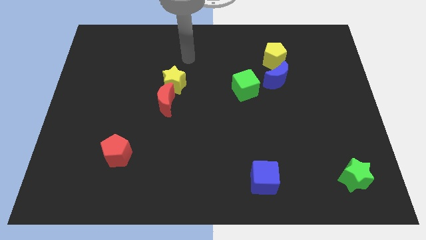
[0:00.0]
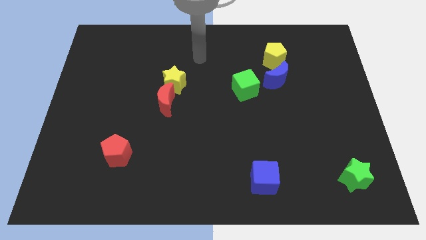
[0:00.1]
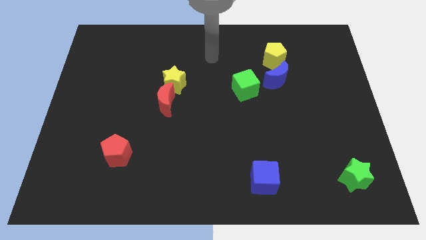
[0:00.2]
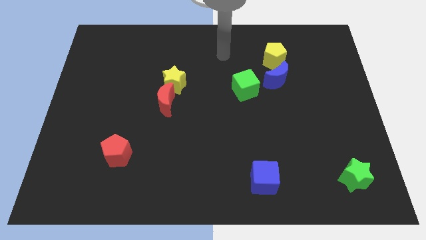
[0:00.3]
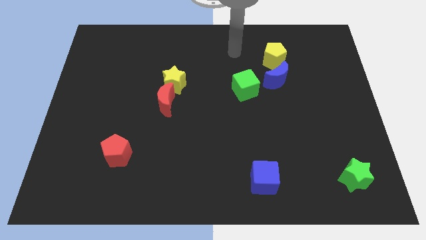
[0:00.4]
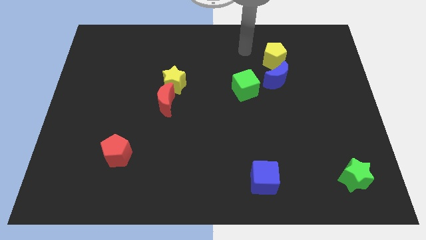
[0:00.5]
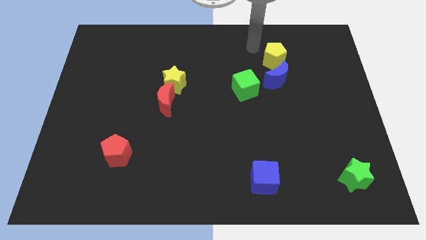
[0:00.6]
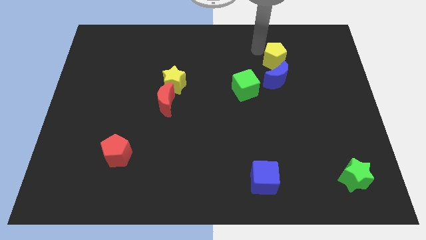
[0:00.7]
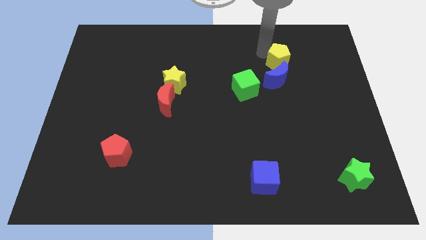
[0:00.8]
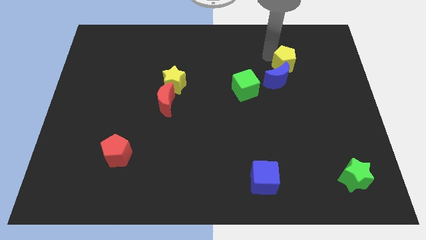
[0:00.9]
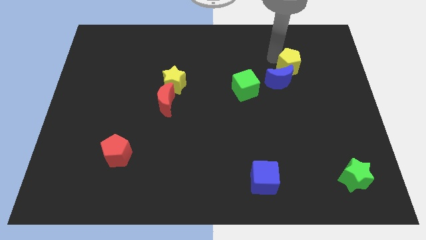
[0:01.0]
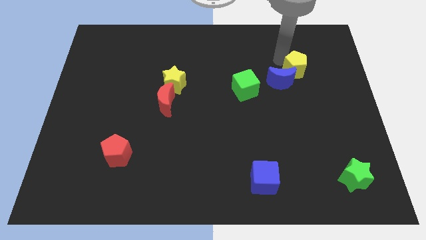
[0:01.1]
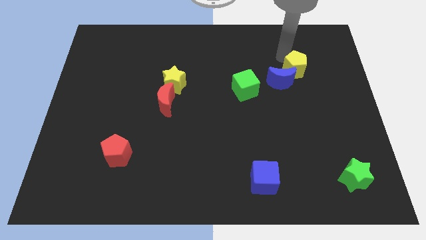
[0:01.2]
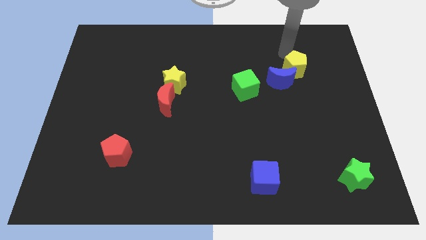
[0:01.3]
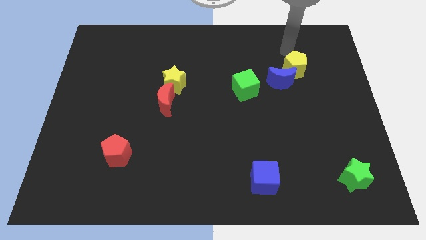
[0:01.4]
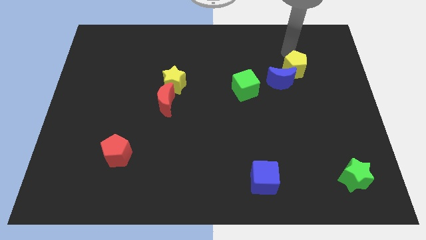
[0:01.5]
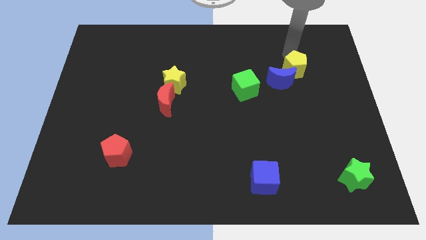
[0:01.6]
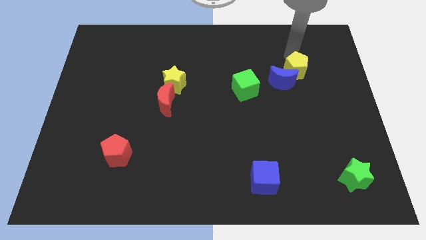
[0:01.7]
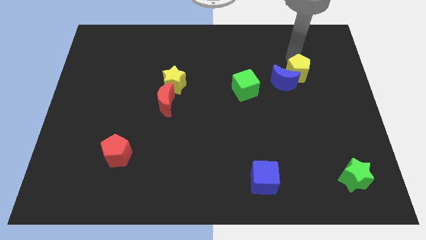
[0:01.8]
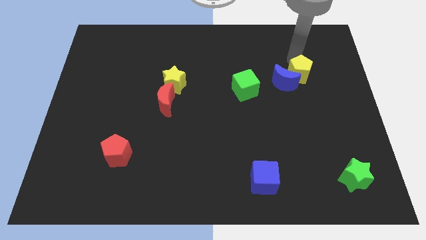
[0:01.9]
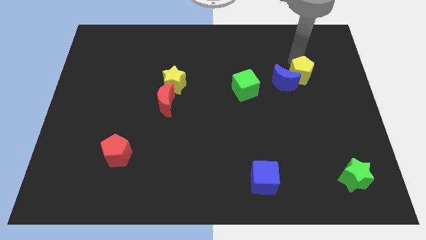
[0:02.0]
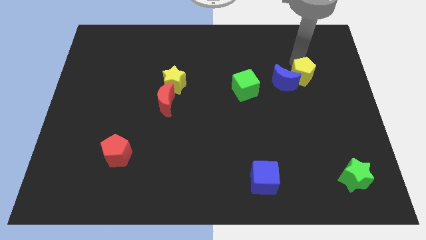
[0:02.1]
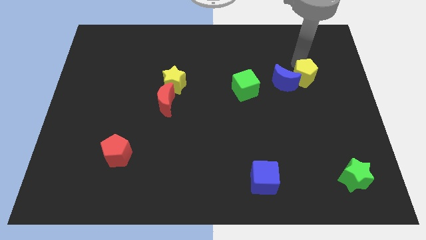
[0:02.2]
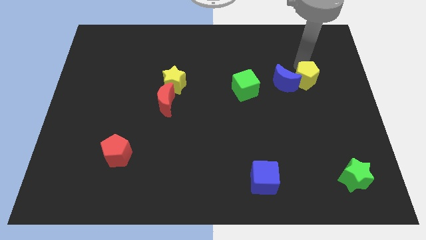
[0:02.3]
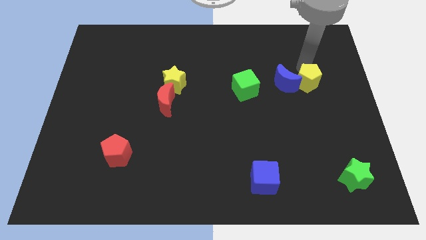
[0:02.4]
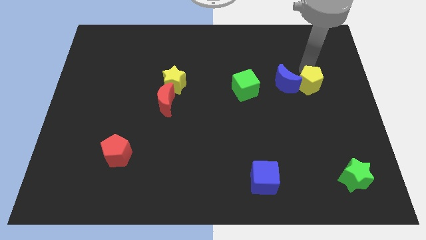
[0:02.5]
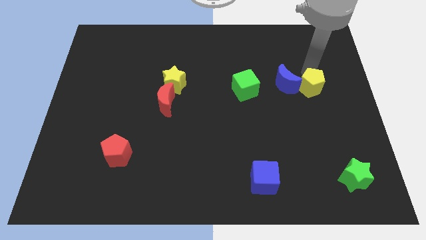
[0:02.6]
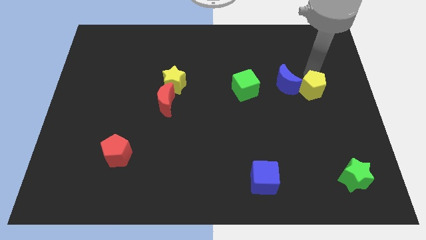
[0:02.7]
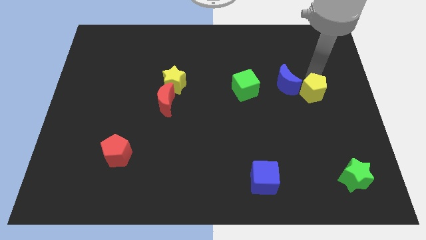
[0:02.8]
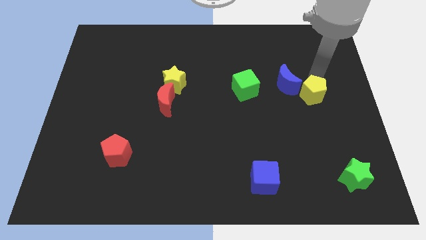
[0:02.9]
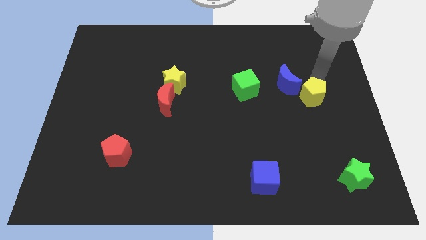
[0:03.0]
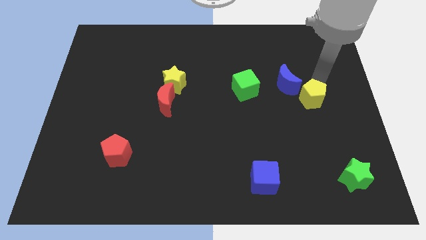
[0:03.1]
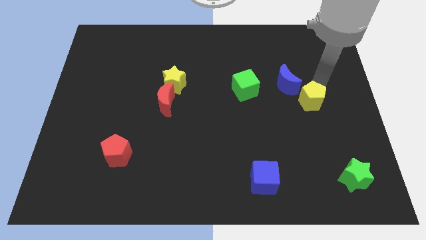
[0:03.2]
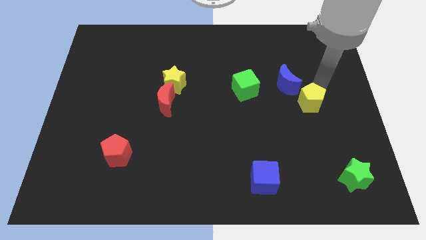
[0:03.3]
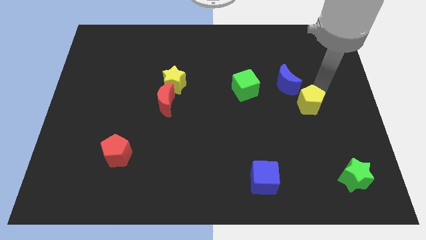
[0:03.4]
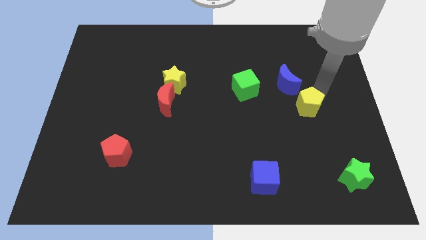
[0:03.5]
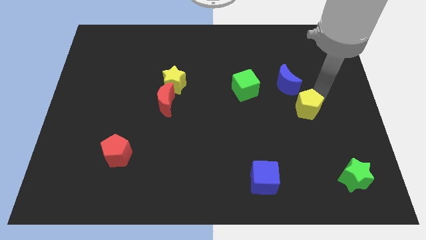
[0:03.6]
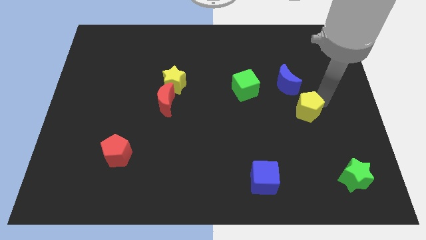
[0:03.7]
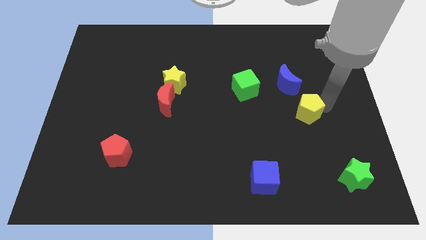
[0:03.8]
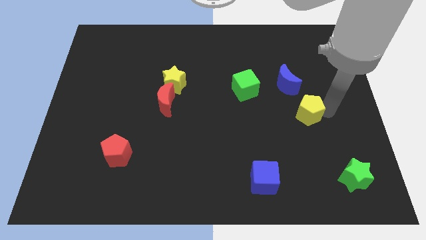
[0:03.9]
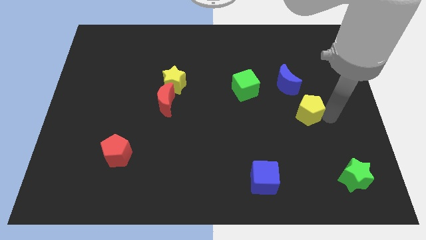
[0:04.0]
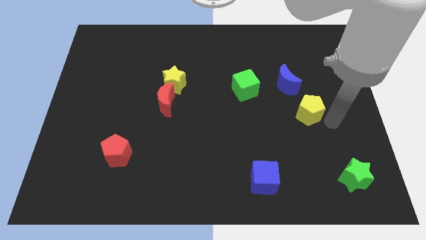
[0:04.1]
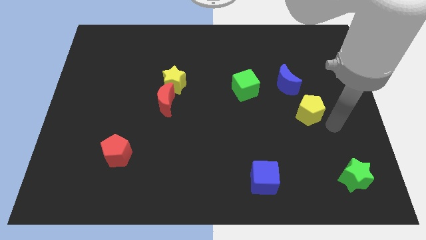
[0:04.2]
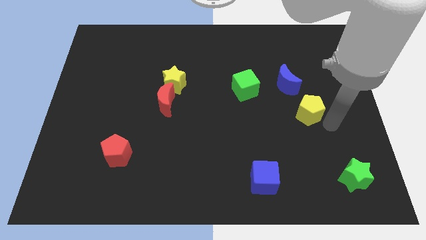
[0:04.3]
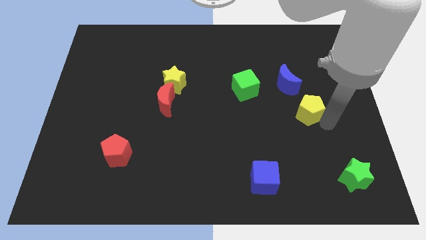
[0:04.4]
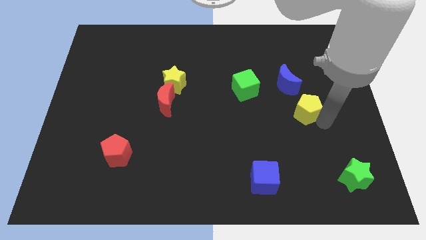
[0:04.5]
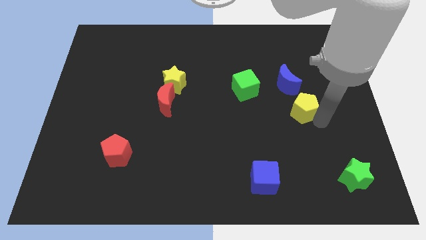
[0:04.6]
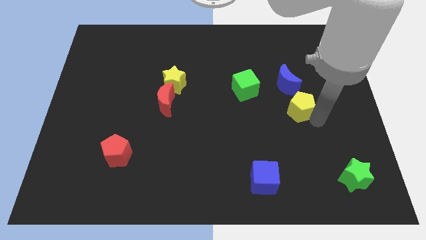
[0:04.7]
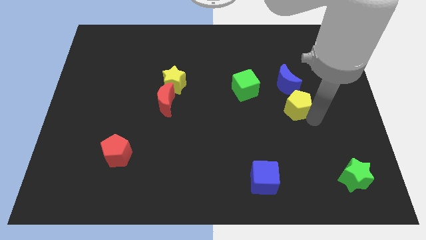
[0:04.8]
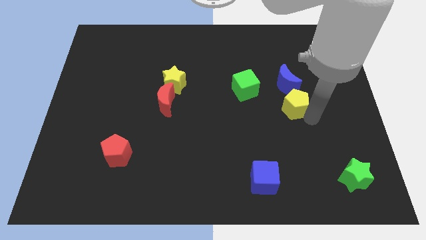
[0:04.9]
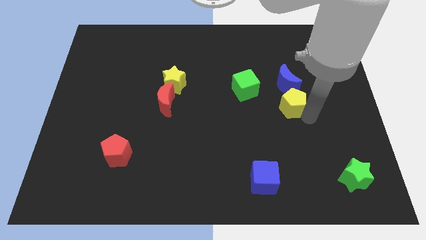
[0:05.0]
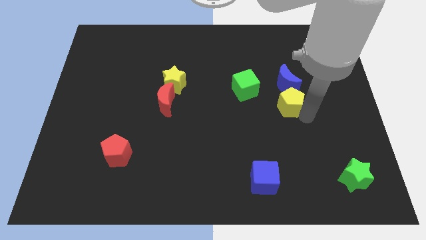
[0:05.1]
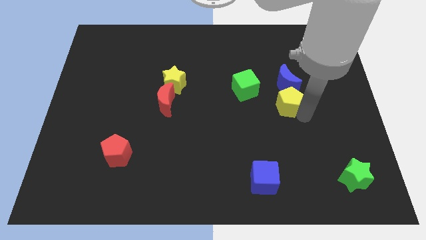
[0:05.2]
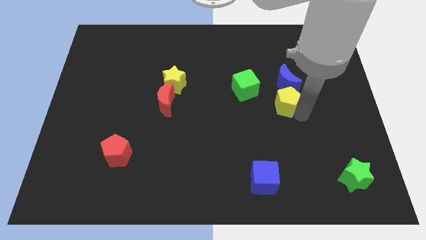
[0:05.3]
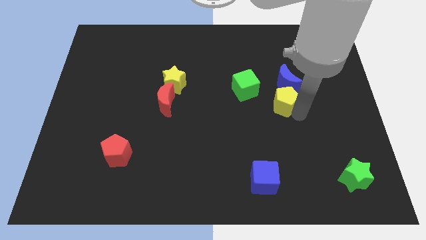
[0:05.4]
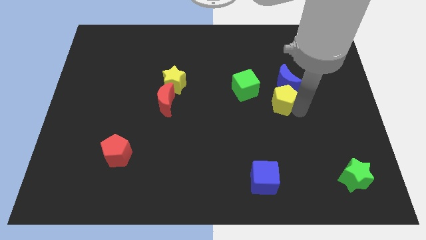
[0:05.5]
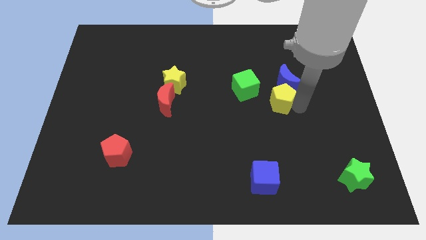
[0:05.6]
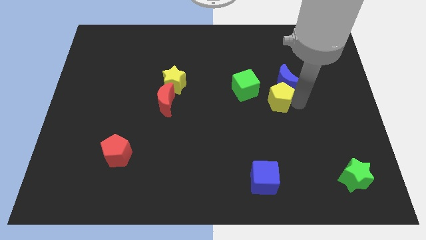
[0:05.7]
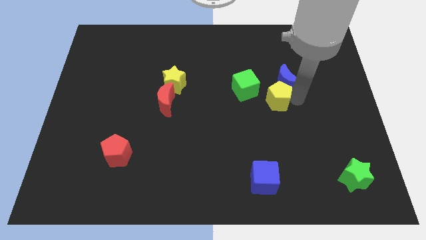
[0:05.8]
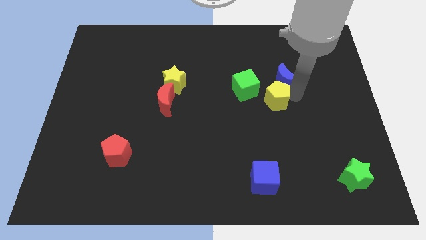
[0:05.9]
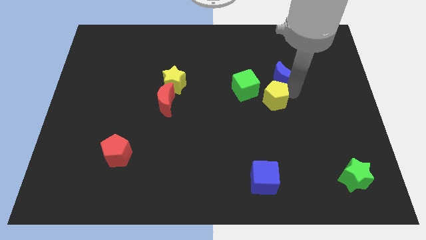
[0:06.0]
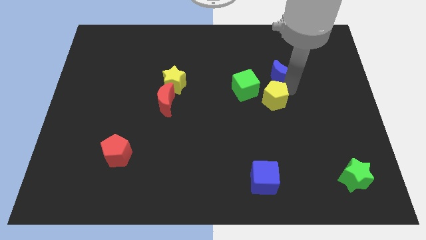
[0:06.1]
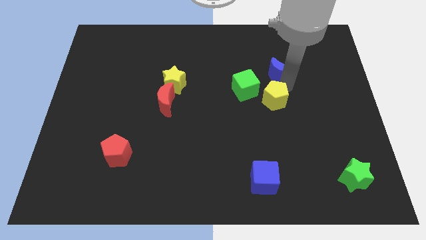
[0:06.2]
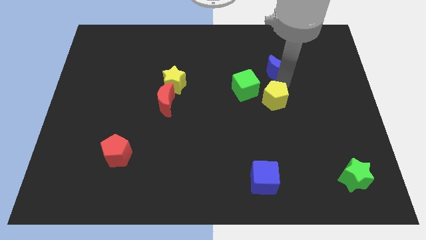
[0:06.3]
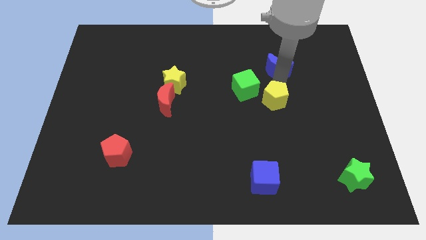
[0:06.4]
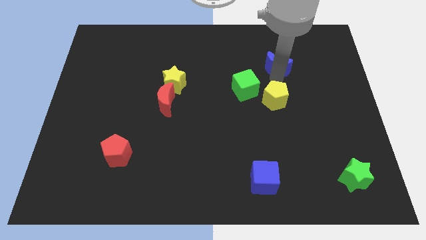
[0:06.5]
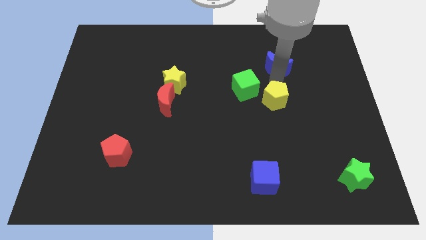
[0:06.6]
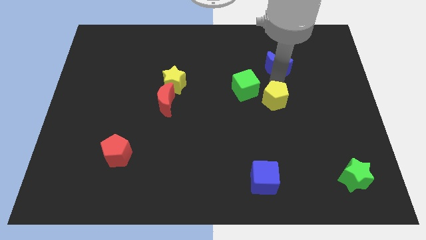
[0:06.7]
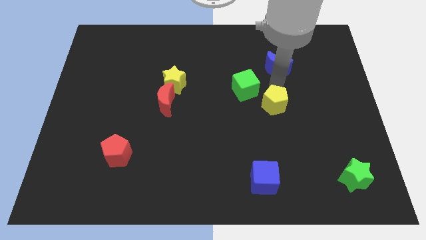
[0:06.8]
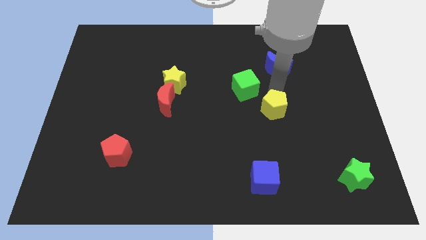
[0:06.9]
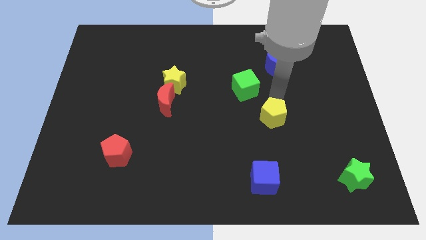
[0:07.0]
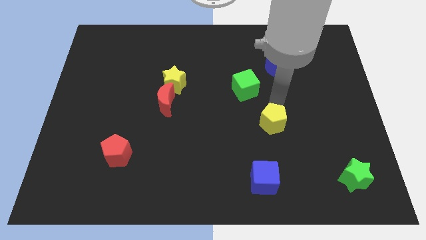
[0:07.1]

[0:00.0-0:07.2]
slide the yellow pentagon above the blue cube
